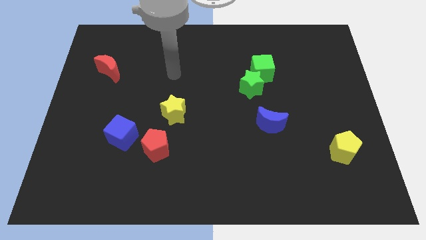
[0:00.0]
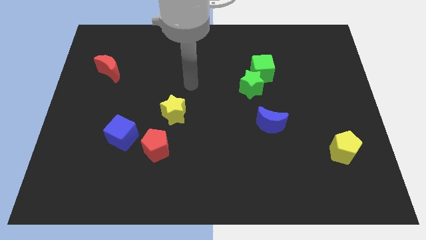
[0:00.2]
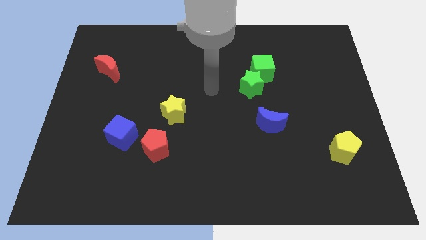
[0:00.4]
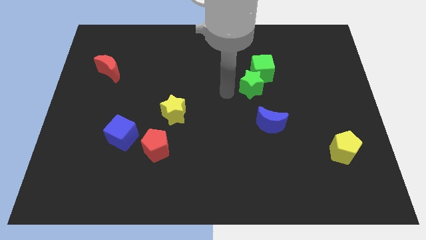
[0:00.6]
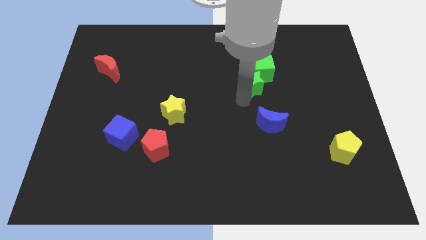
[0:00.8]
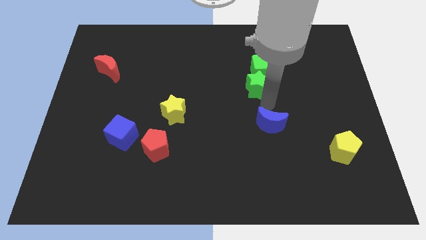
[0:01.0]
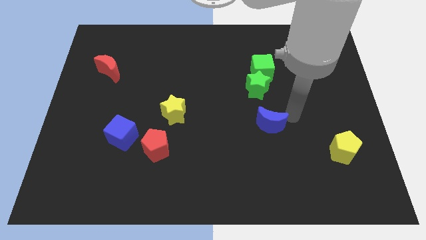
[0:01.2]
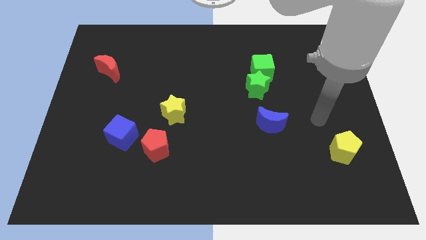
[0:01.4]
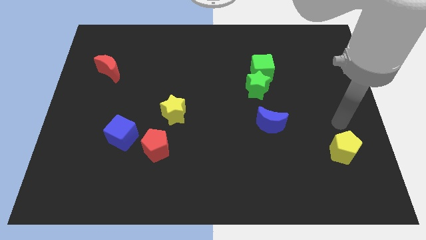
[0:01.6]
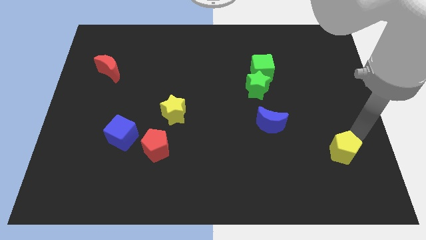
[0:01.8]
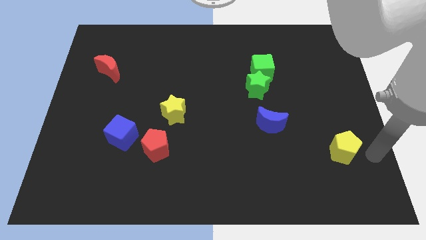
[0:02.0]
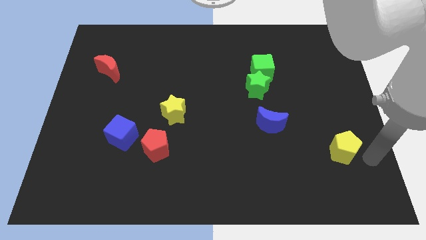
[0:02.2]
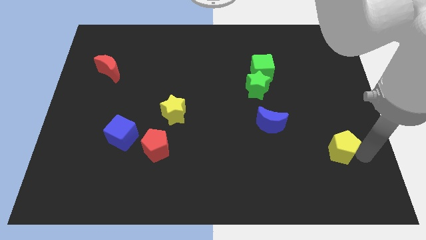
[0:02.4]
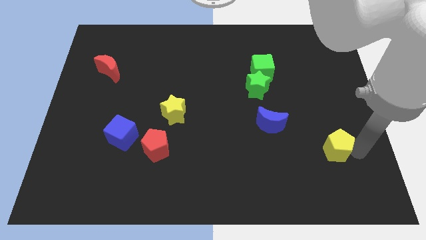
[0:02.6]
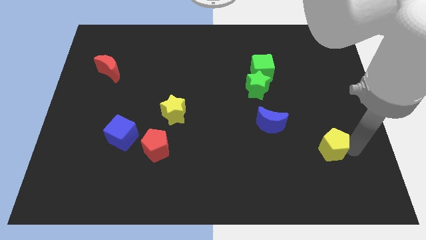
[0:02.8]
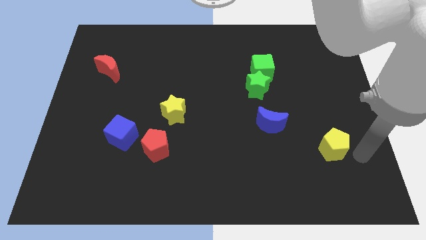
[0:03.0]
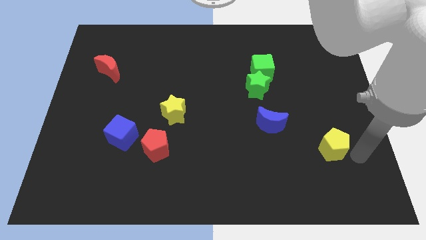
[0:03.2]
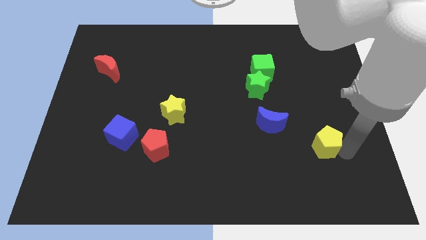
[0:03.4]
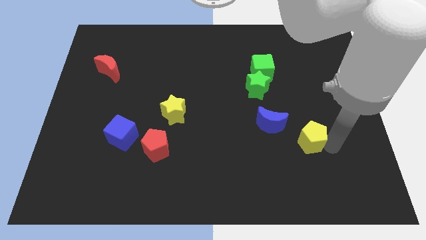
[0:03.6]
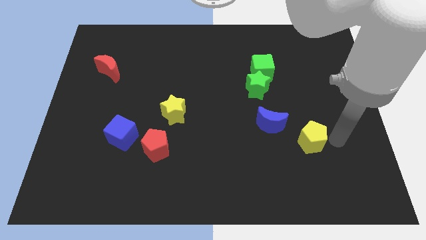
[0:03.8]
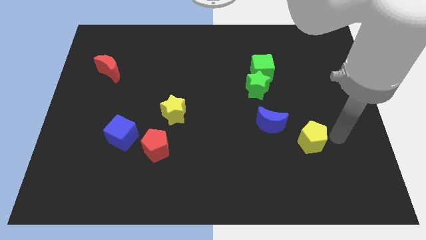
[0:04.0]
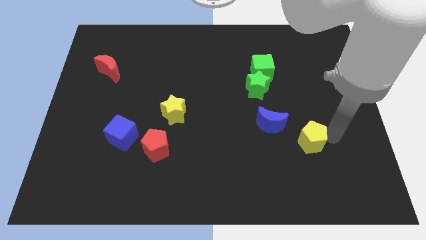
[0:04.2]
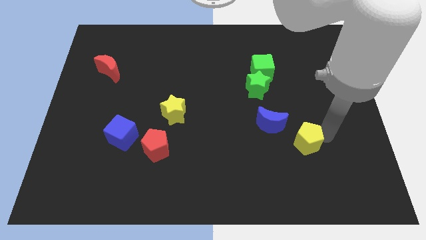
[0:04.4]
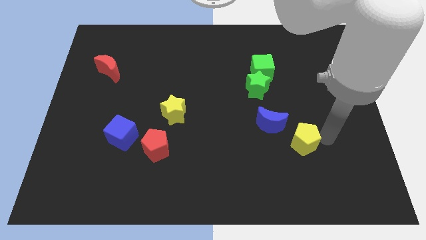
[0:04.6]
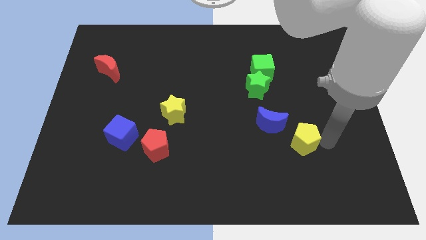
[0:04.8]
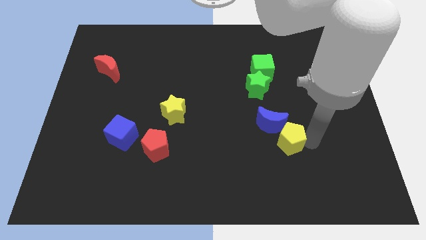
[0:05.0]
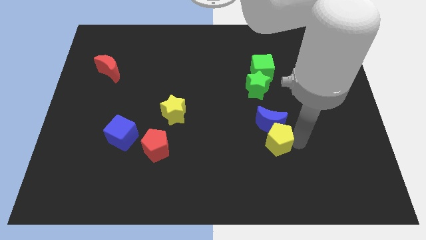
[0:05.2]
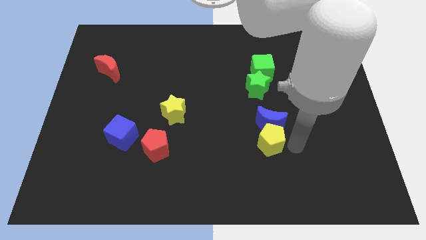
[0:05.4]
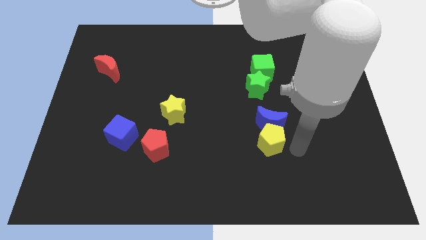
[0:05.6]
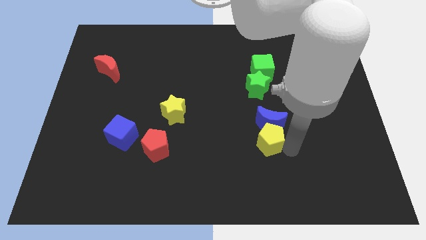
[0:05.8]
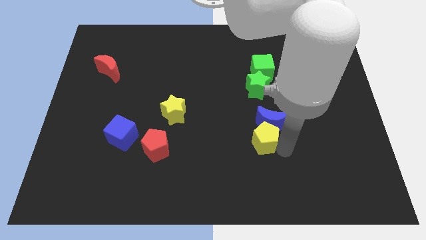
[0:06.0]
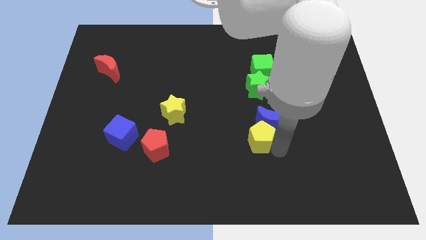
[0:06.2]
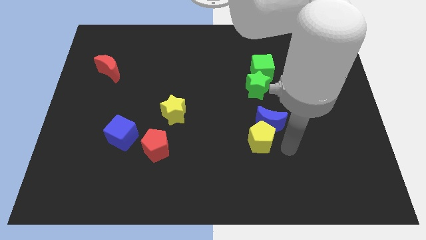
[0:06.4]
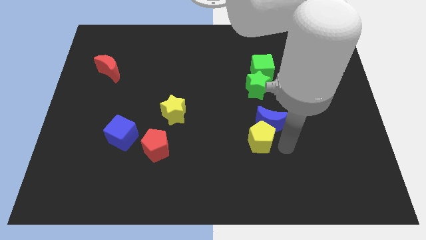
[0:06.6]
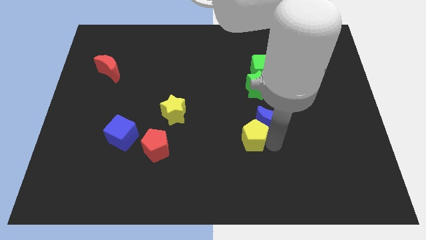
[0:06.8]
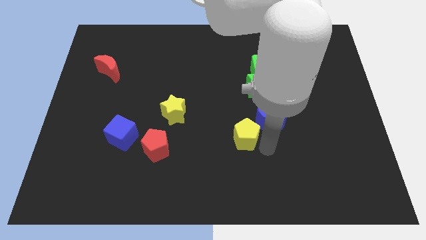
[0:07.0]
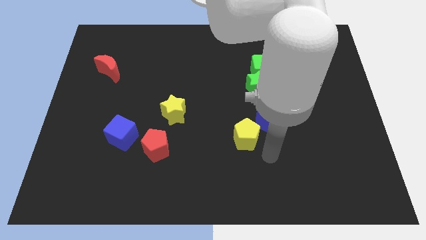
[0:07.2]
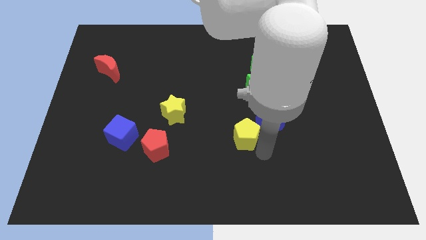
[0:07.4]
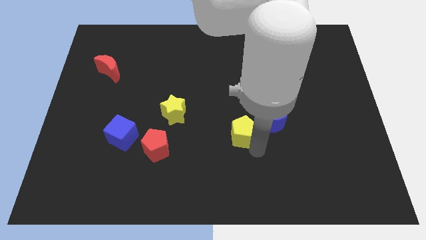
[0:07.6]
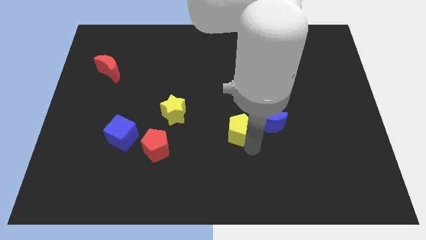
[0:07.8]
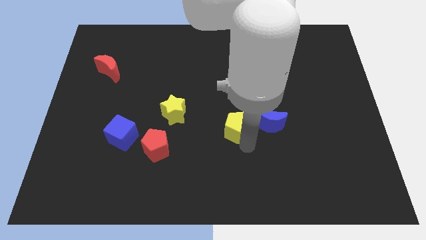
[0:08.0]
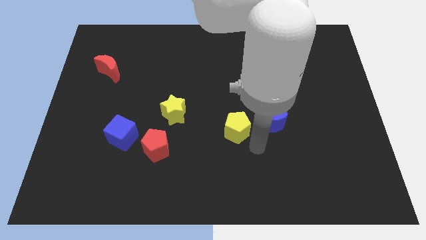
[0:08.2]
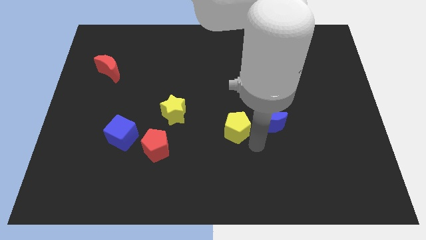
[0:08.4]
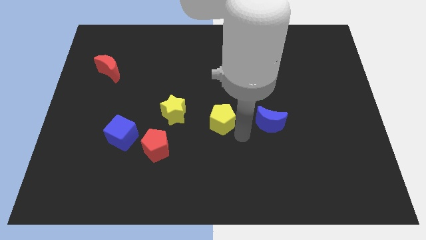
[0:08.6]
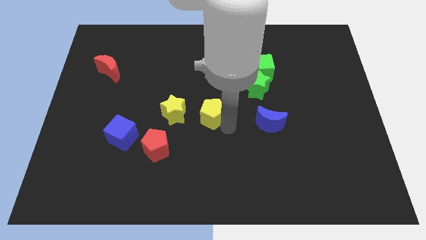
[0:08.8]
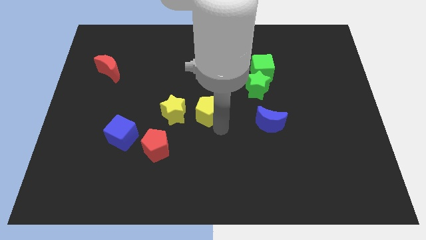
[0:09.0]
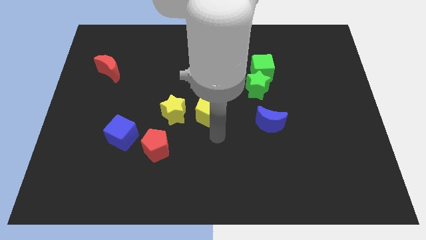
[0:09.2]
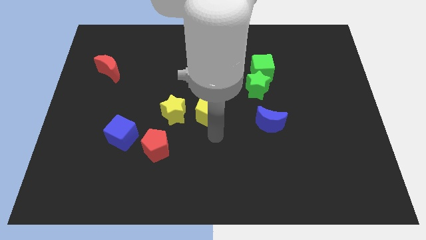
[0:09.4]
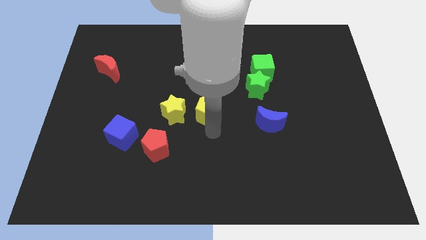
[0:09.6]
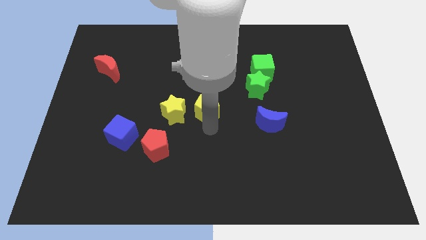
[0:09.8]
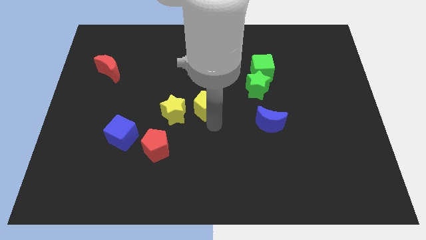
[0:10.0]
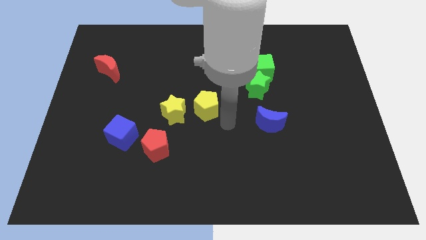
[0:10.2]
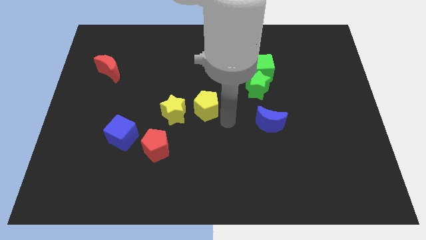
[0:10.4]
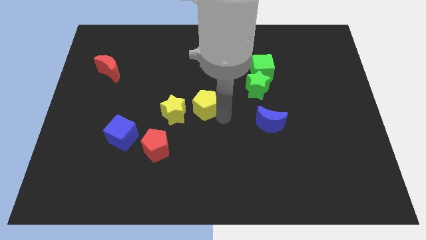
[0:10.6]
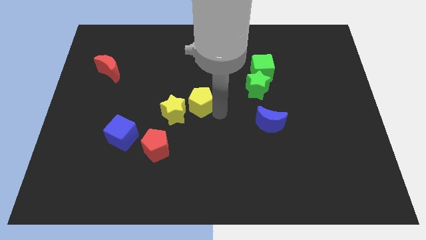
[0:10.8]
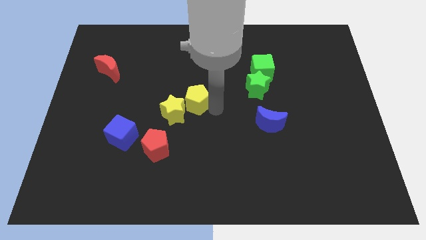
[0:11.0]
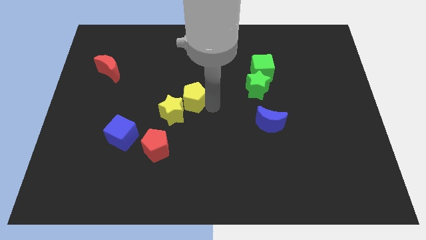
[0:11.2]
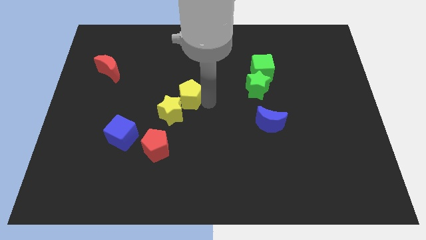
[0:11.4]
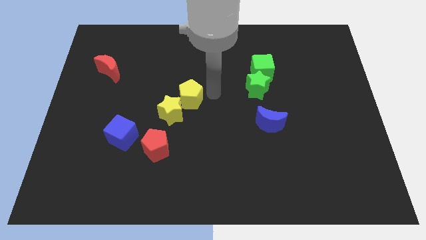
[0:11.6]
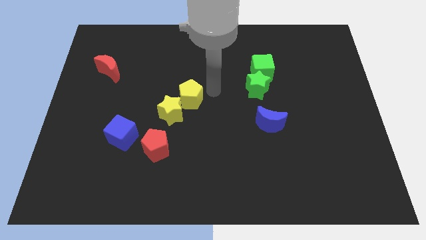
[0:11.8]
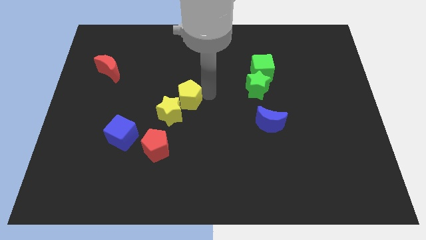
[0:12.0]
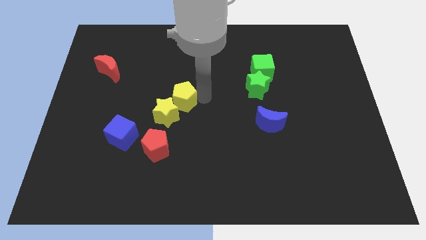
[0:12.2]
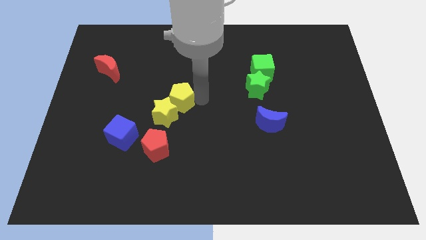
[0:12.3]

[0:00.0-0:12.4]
move the yellow pentagon to the top of the red pentagon
